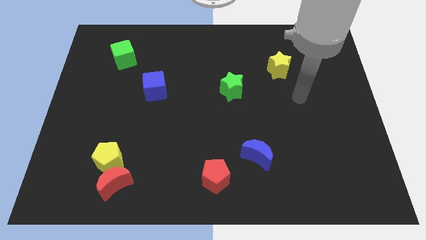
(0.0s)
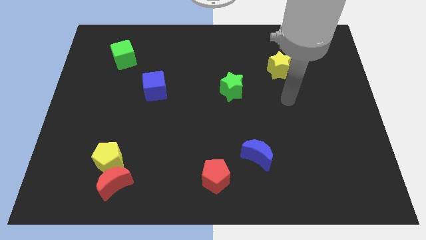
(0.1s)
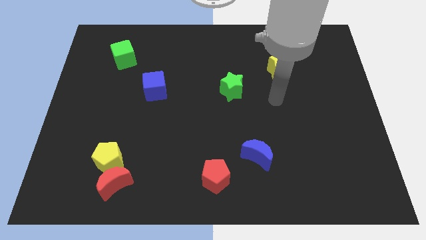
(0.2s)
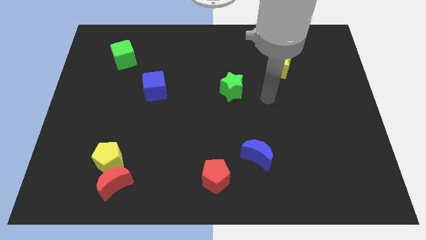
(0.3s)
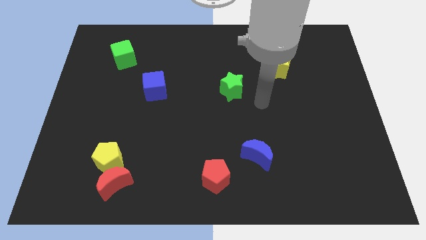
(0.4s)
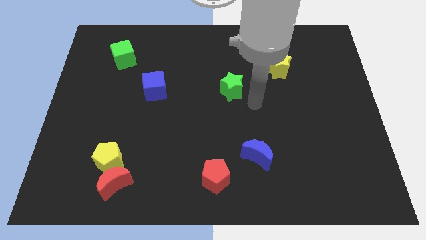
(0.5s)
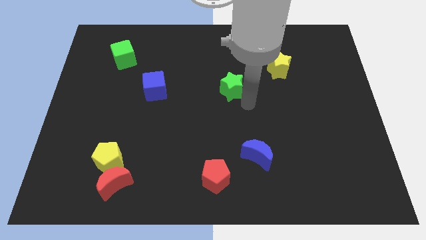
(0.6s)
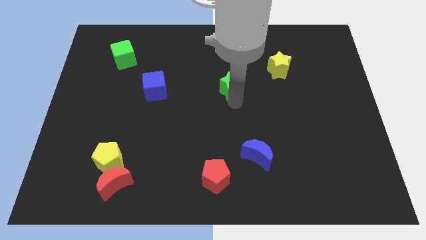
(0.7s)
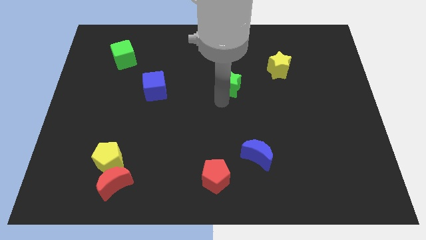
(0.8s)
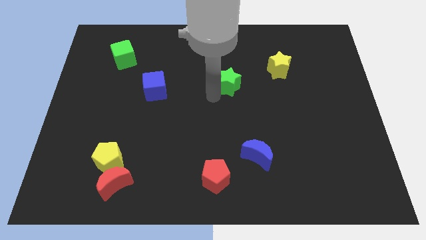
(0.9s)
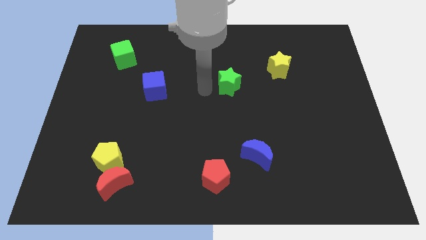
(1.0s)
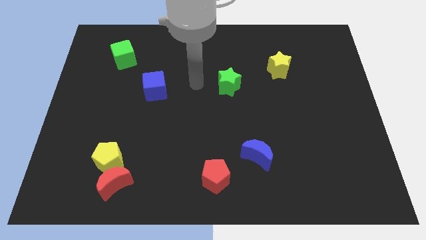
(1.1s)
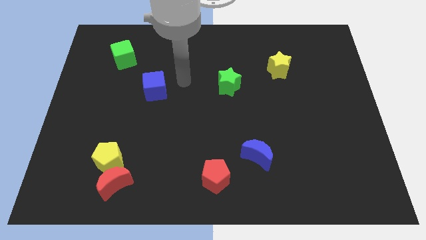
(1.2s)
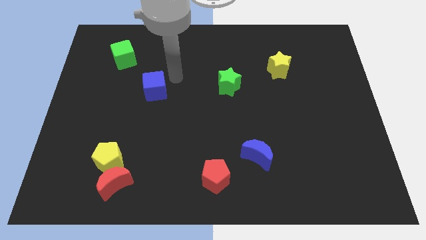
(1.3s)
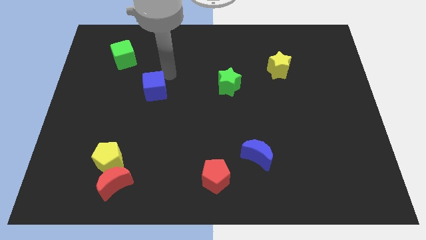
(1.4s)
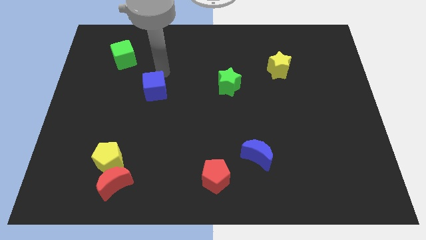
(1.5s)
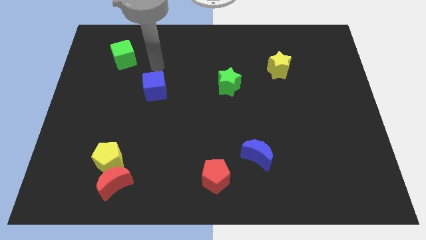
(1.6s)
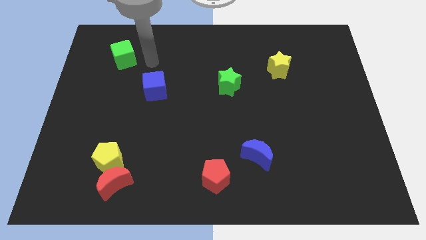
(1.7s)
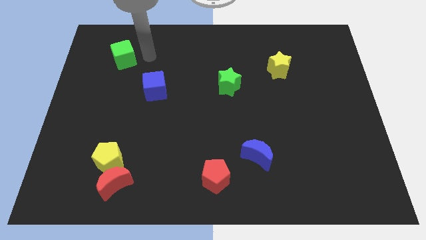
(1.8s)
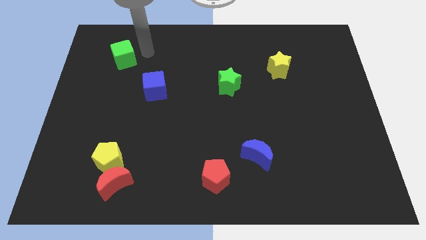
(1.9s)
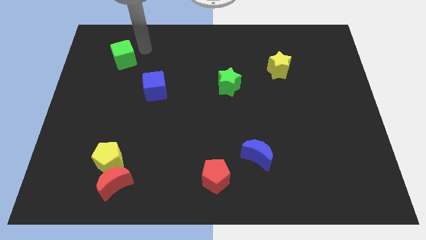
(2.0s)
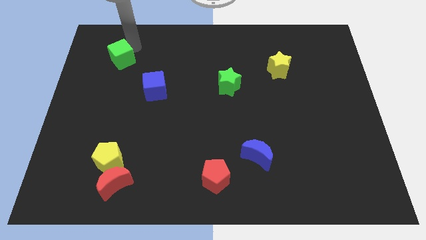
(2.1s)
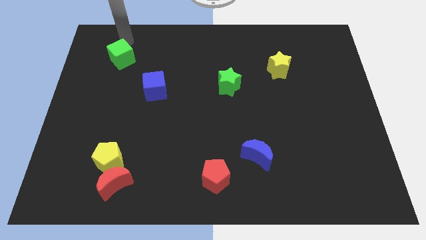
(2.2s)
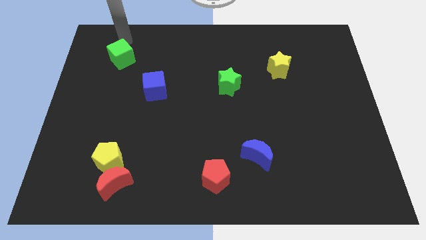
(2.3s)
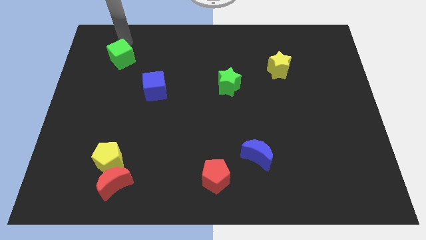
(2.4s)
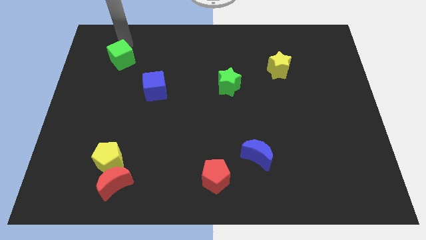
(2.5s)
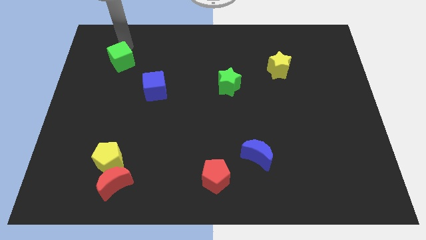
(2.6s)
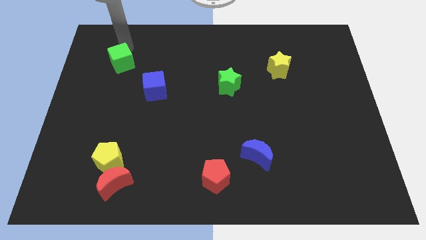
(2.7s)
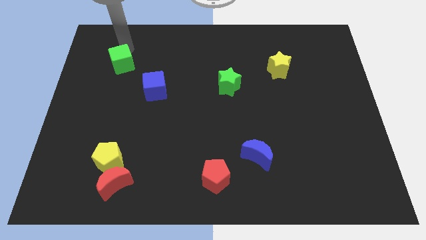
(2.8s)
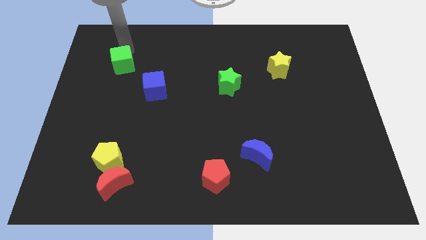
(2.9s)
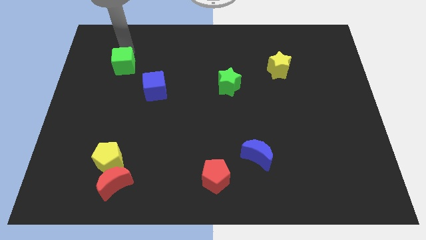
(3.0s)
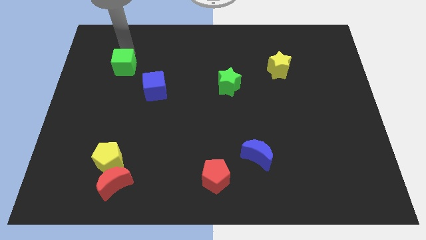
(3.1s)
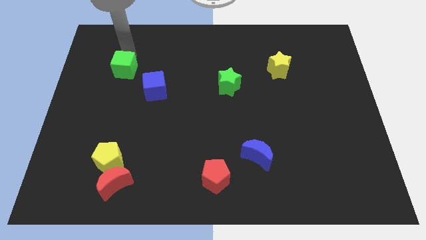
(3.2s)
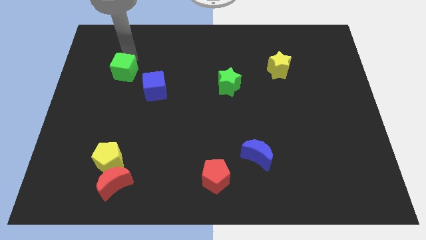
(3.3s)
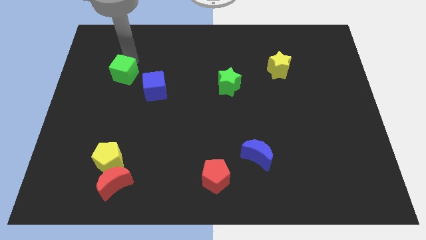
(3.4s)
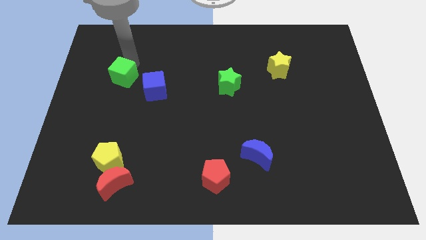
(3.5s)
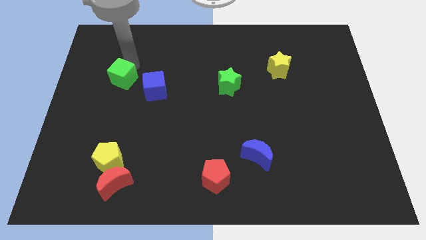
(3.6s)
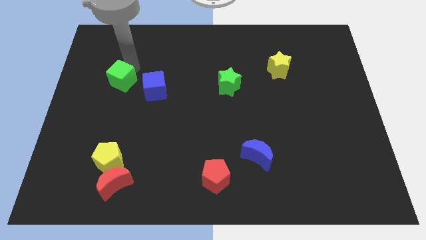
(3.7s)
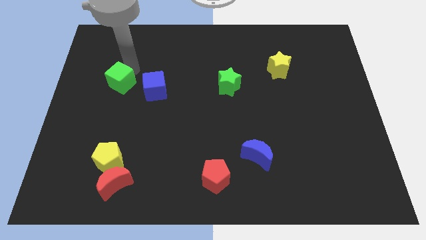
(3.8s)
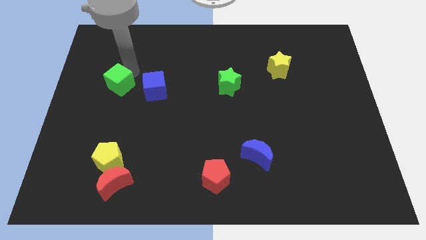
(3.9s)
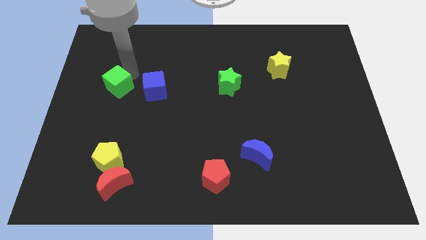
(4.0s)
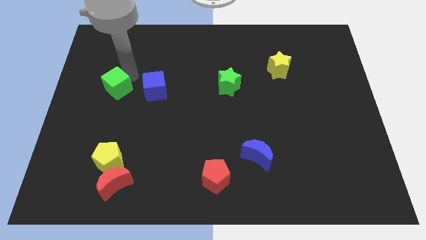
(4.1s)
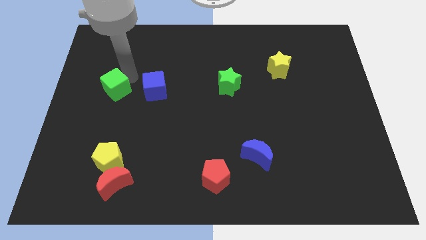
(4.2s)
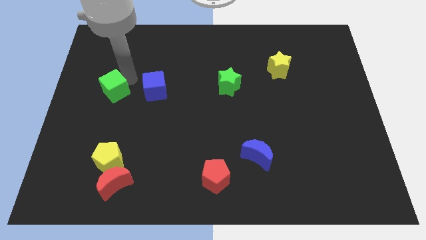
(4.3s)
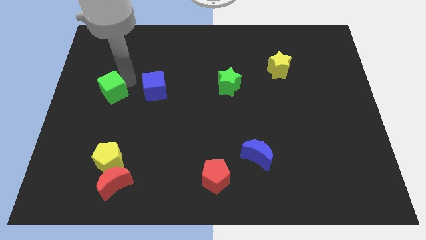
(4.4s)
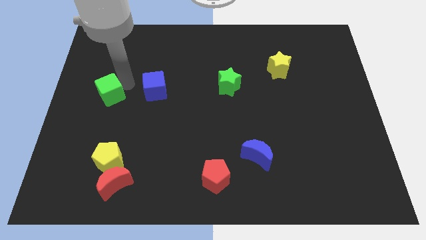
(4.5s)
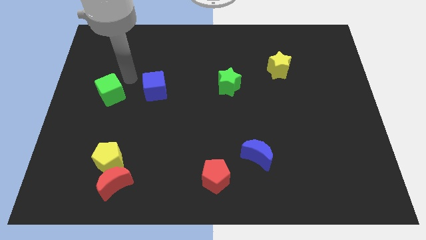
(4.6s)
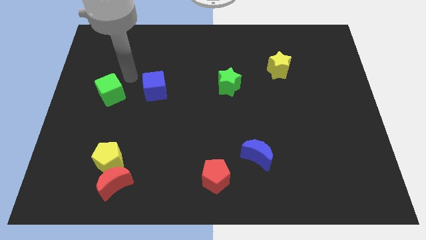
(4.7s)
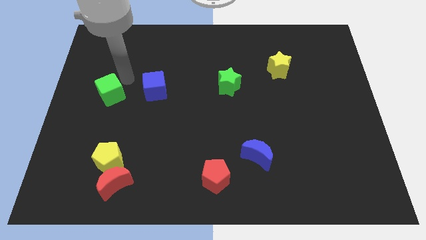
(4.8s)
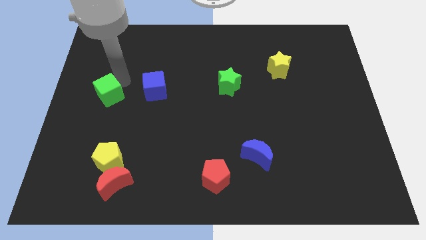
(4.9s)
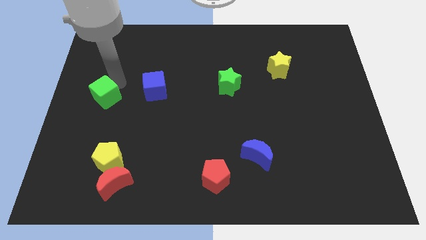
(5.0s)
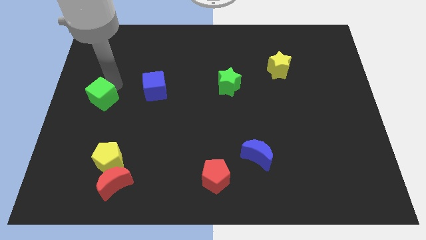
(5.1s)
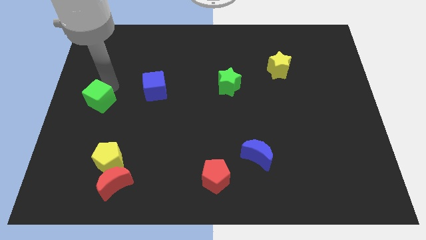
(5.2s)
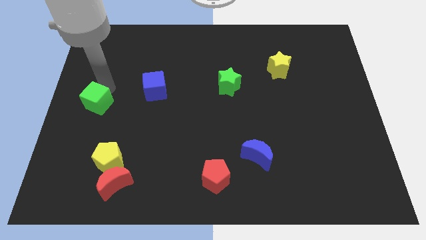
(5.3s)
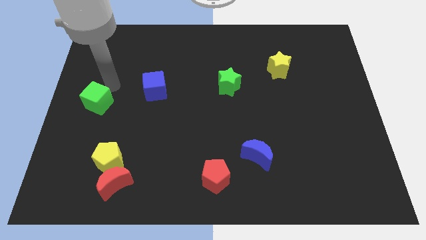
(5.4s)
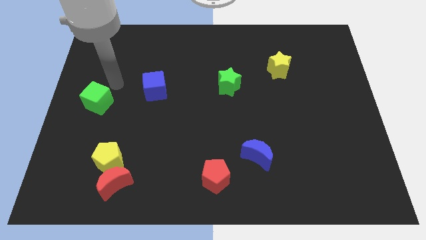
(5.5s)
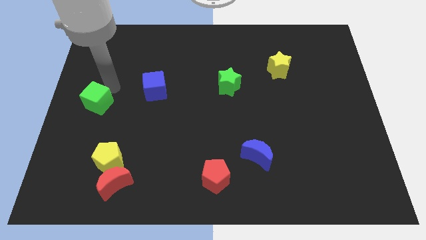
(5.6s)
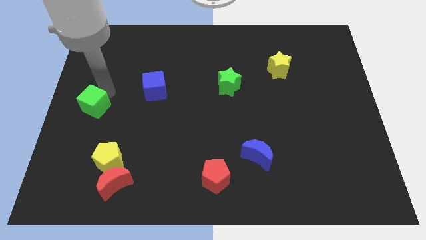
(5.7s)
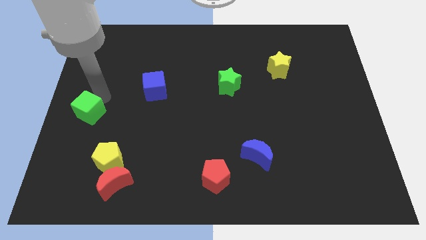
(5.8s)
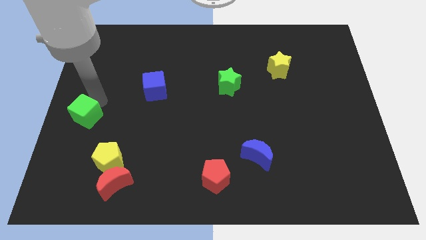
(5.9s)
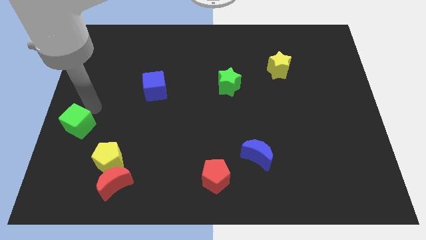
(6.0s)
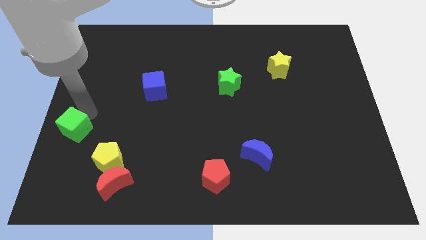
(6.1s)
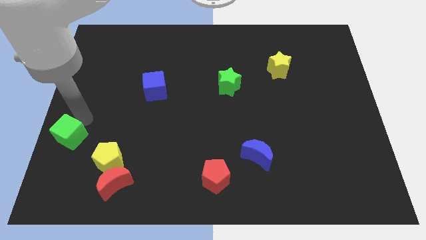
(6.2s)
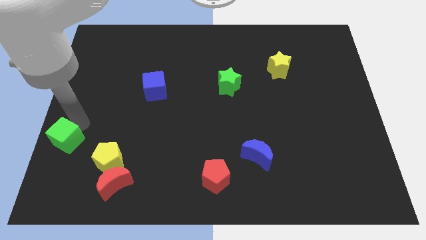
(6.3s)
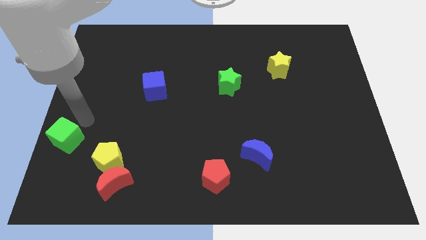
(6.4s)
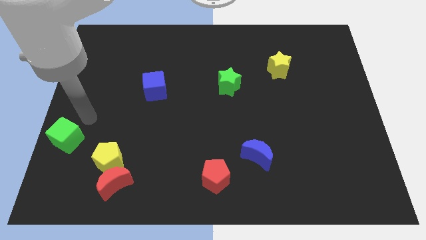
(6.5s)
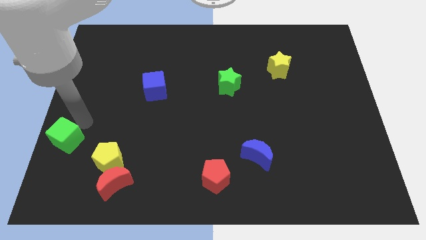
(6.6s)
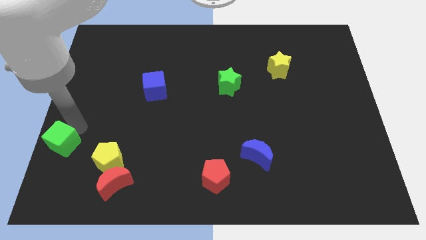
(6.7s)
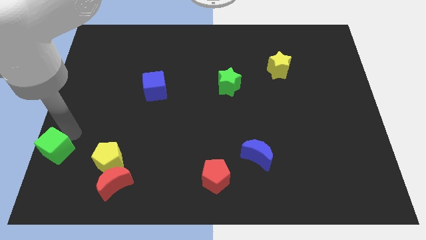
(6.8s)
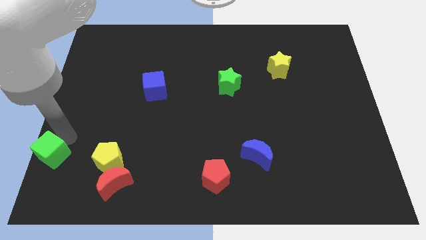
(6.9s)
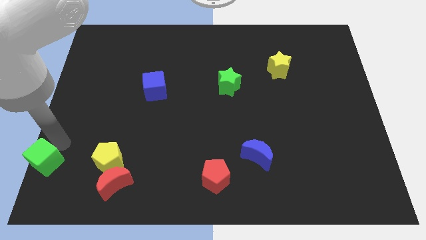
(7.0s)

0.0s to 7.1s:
put the green cube to the bottom left corner
